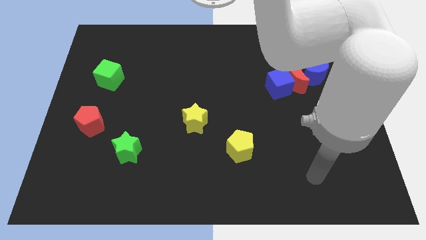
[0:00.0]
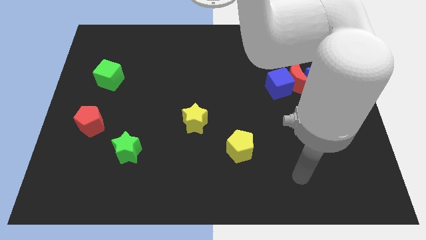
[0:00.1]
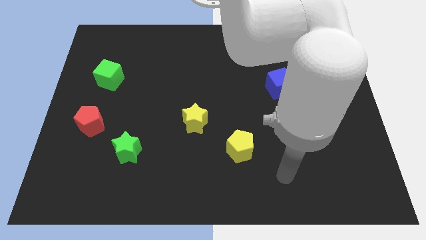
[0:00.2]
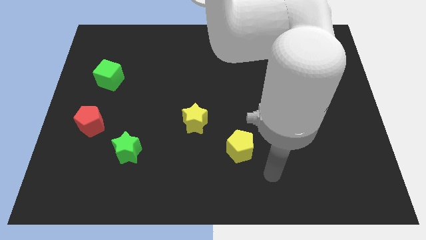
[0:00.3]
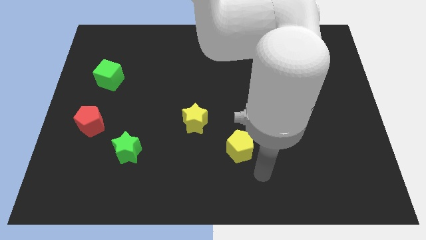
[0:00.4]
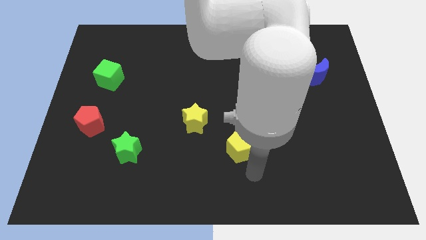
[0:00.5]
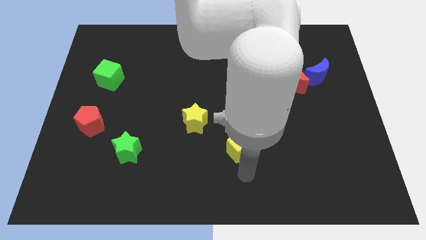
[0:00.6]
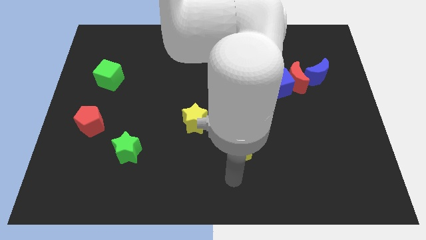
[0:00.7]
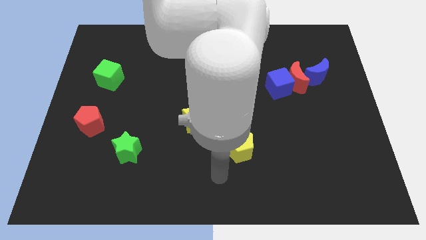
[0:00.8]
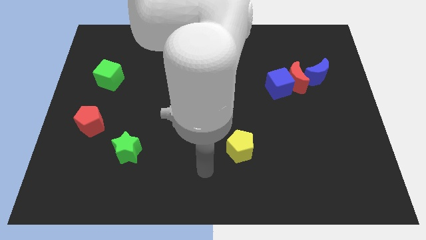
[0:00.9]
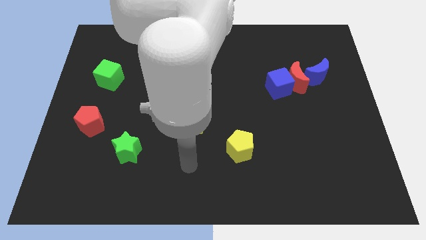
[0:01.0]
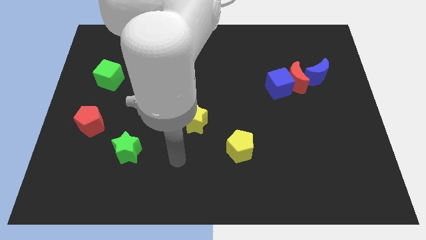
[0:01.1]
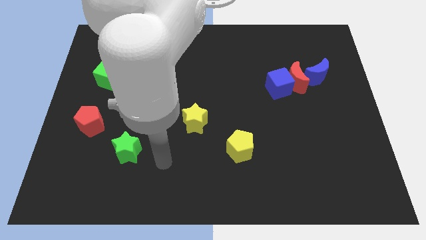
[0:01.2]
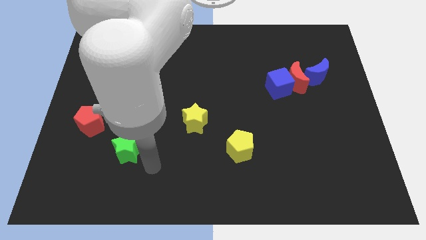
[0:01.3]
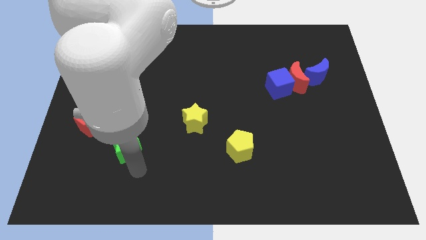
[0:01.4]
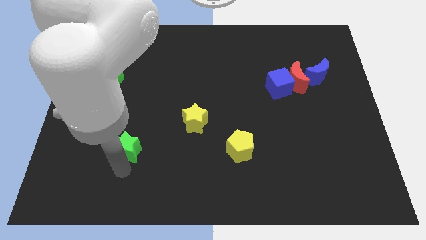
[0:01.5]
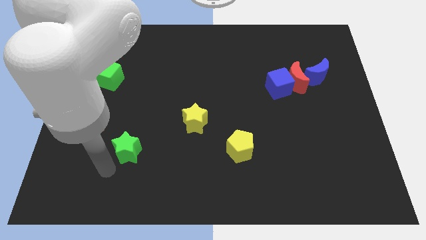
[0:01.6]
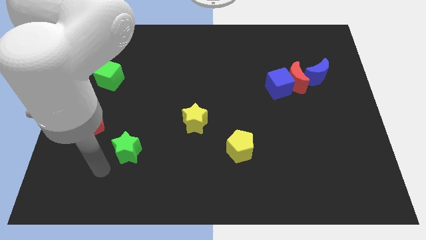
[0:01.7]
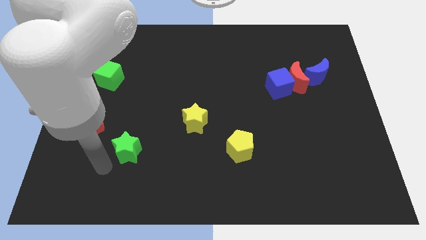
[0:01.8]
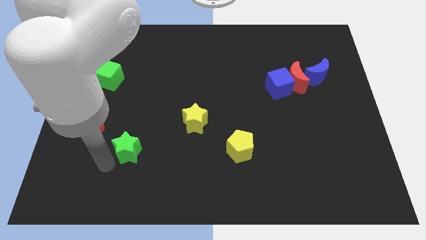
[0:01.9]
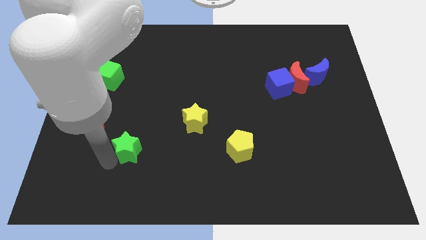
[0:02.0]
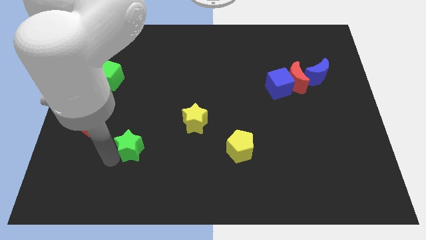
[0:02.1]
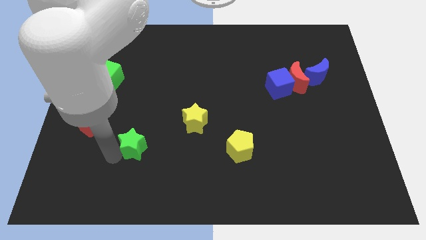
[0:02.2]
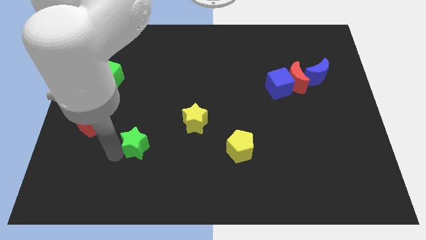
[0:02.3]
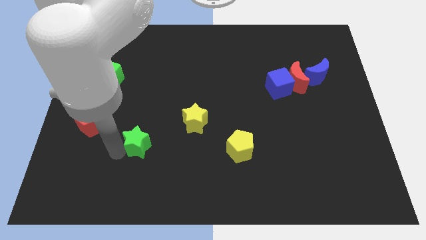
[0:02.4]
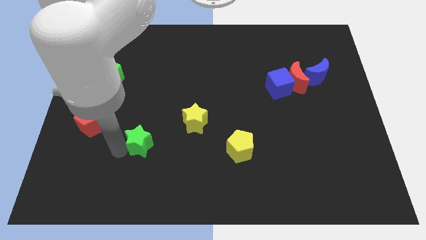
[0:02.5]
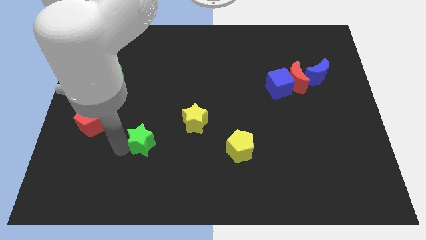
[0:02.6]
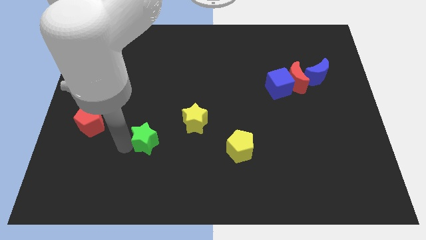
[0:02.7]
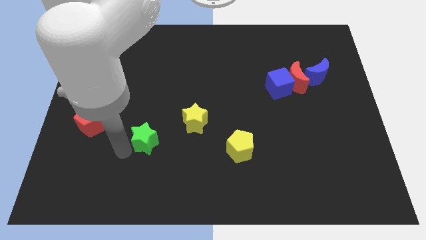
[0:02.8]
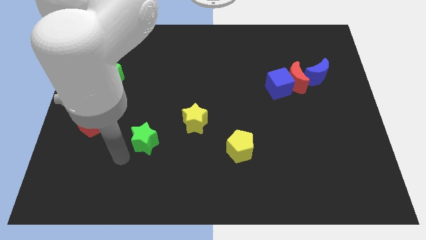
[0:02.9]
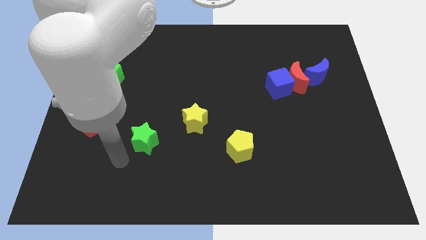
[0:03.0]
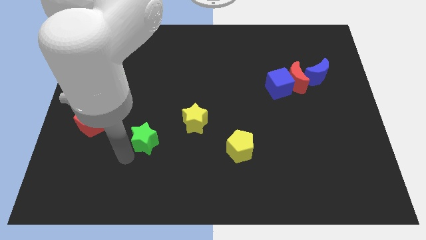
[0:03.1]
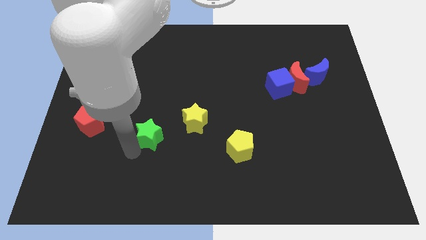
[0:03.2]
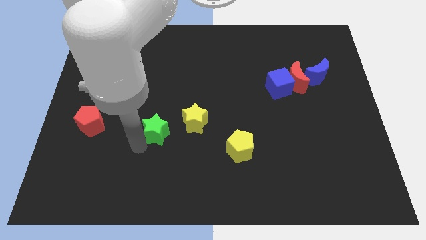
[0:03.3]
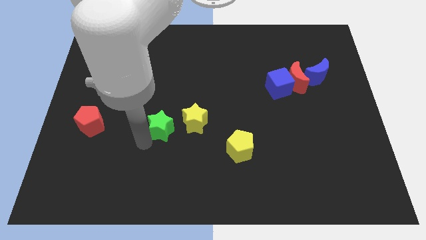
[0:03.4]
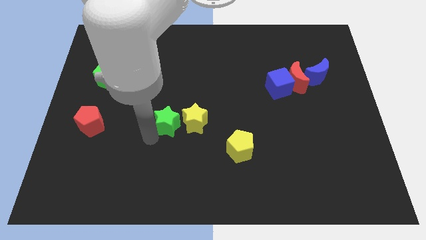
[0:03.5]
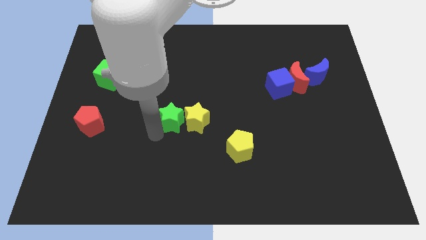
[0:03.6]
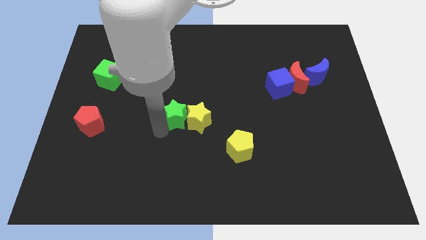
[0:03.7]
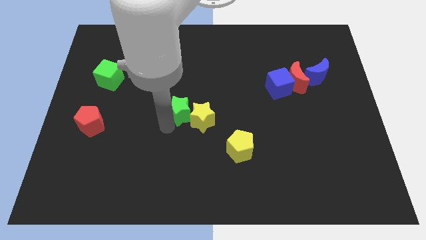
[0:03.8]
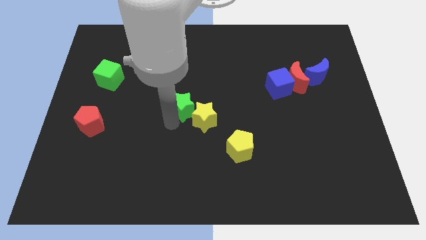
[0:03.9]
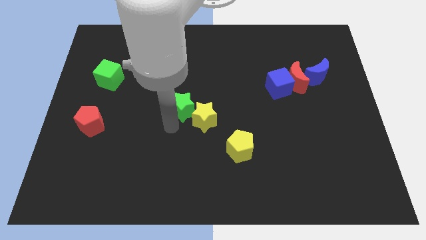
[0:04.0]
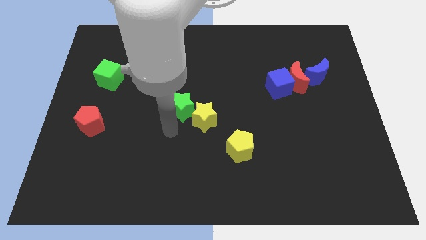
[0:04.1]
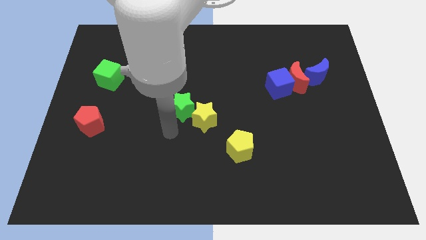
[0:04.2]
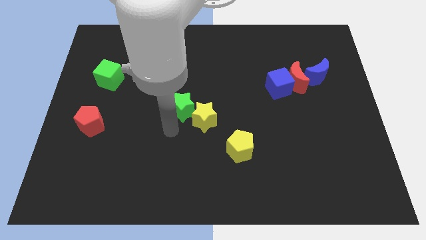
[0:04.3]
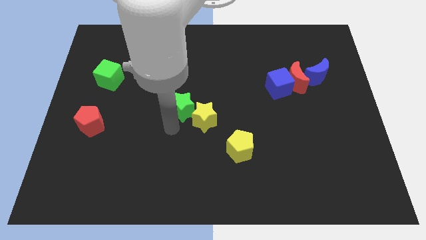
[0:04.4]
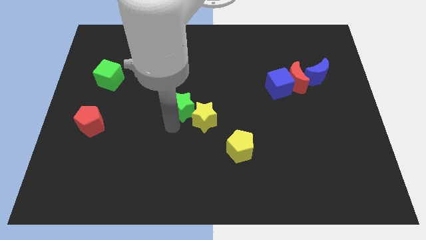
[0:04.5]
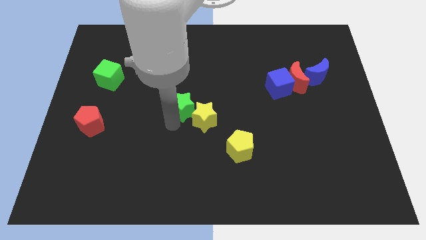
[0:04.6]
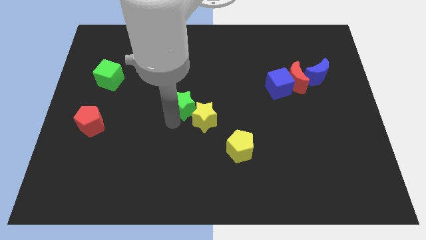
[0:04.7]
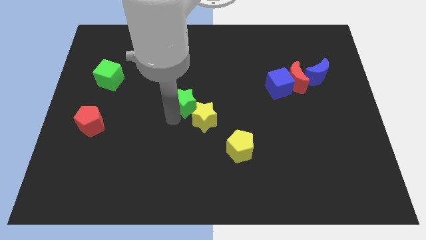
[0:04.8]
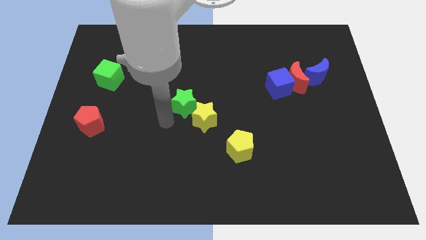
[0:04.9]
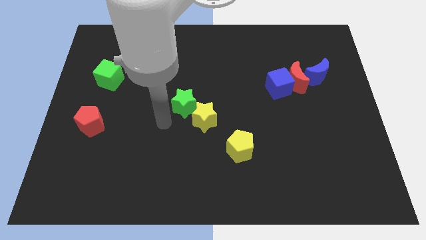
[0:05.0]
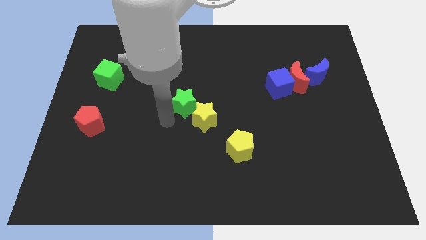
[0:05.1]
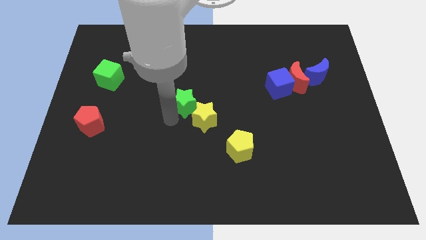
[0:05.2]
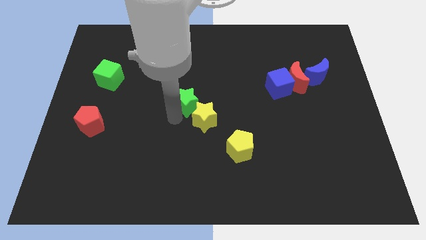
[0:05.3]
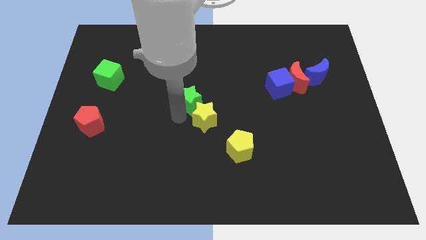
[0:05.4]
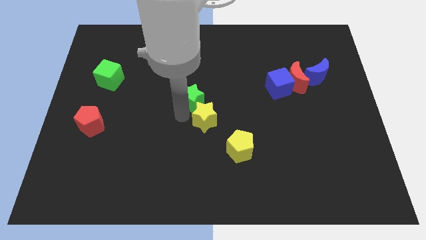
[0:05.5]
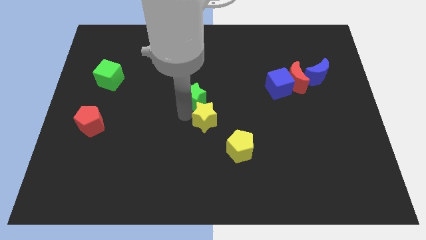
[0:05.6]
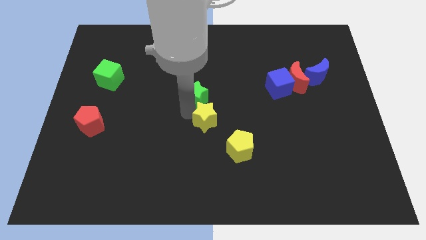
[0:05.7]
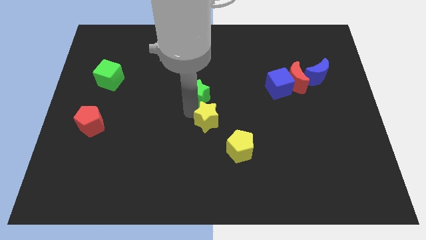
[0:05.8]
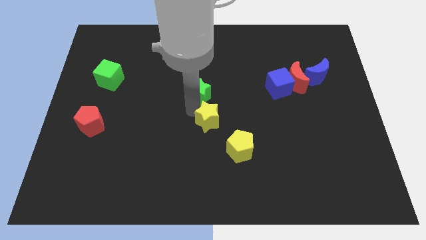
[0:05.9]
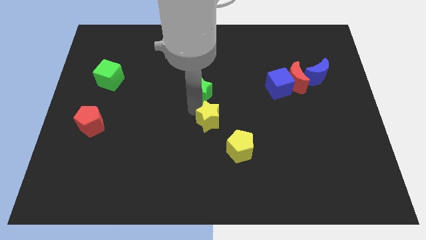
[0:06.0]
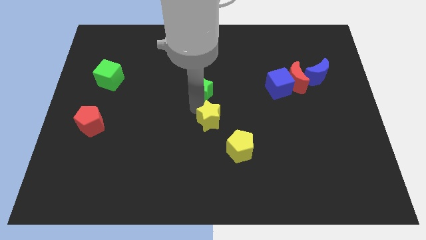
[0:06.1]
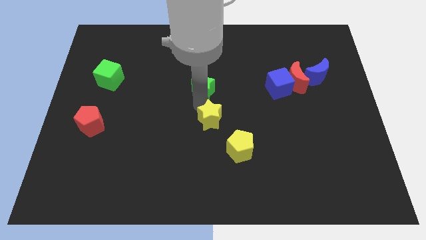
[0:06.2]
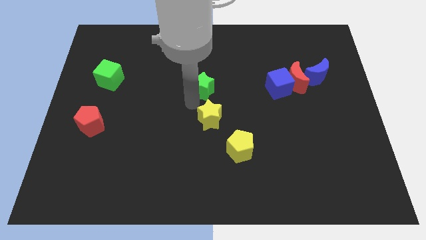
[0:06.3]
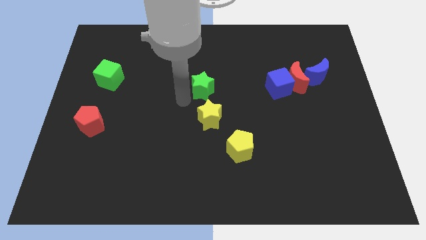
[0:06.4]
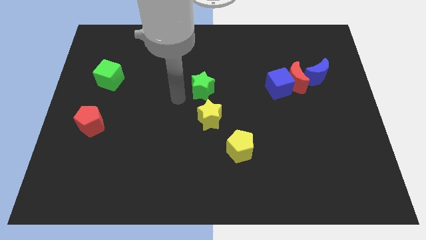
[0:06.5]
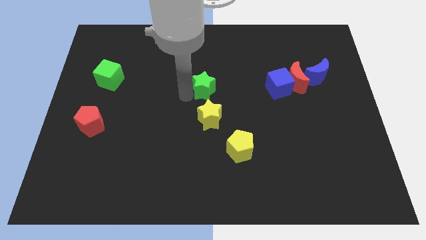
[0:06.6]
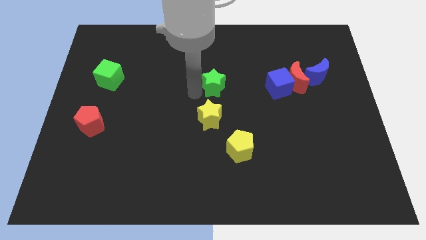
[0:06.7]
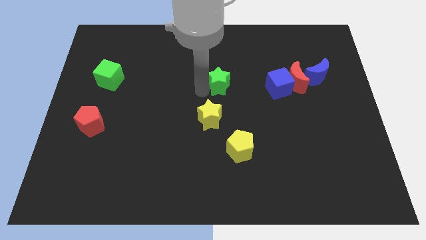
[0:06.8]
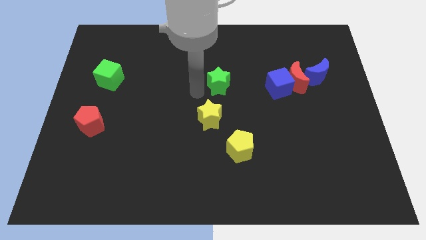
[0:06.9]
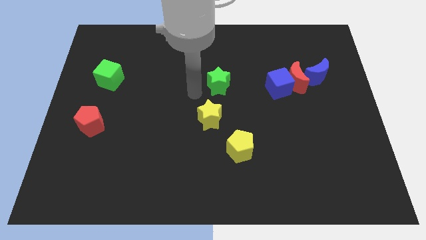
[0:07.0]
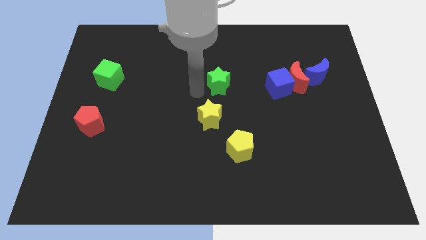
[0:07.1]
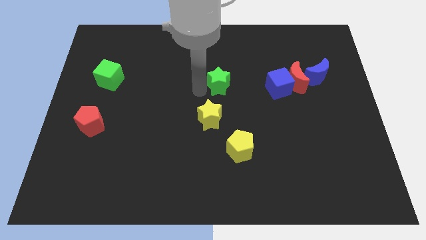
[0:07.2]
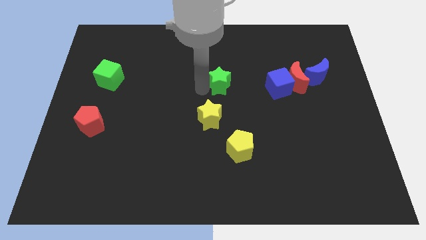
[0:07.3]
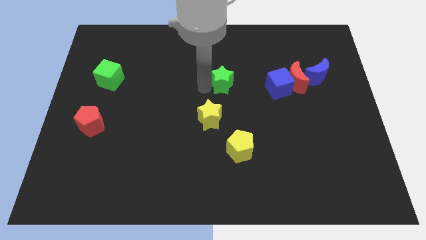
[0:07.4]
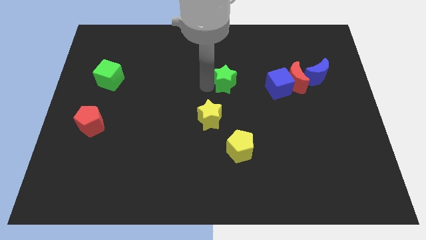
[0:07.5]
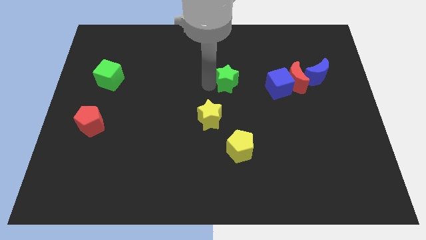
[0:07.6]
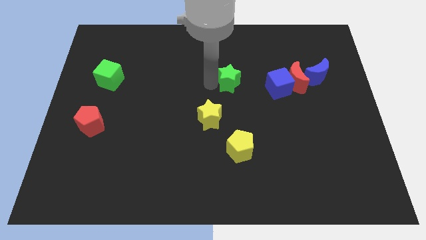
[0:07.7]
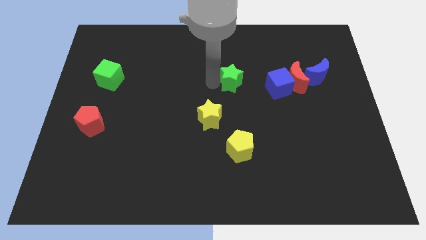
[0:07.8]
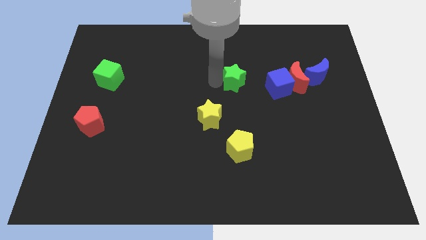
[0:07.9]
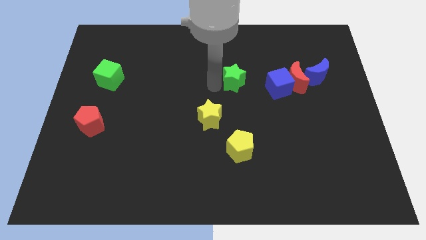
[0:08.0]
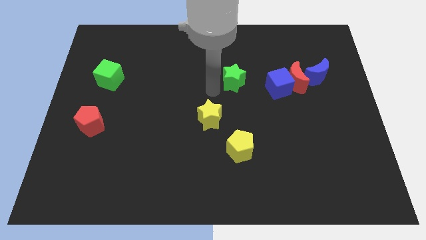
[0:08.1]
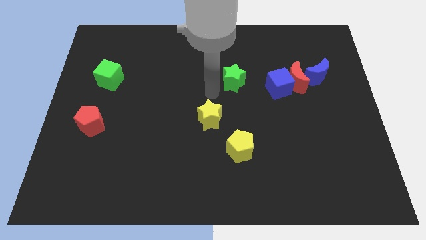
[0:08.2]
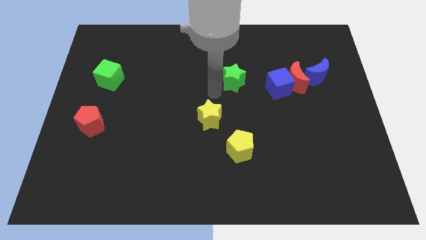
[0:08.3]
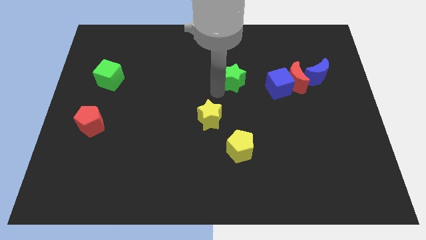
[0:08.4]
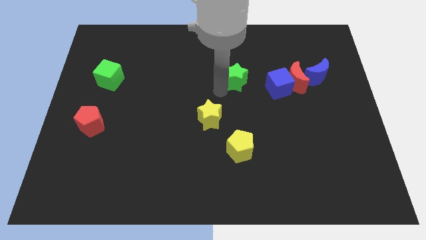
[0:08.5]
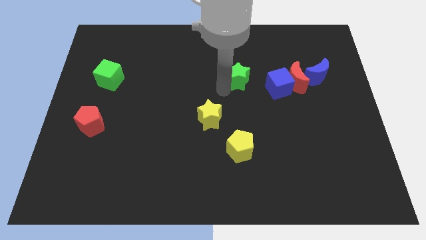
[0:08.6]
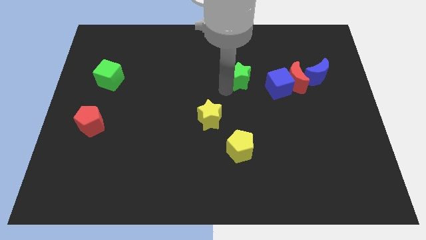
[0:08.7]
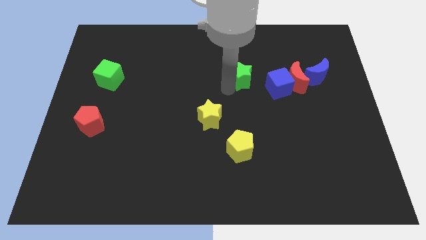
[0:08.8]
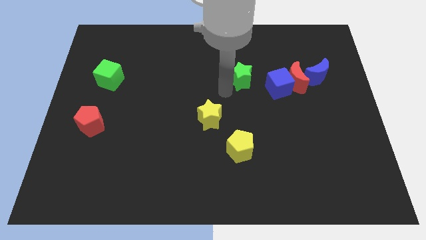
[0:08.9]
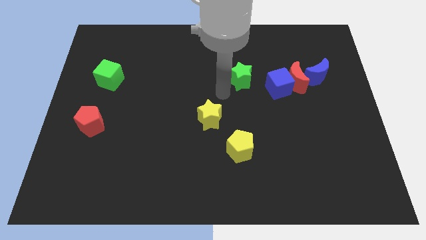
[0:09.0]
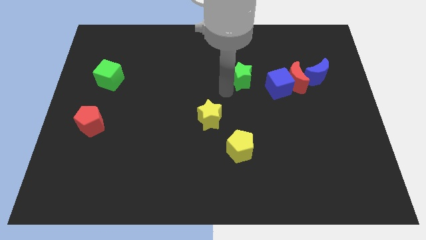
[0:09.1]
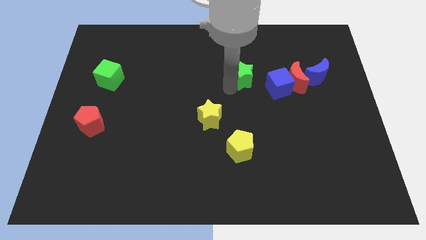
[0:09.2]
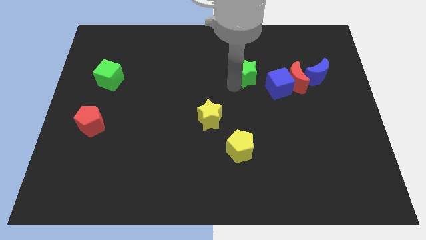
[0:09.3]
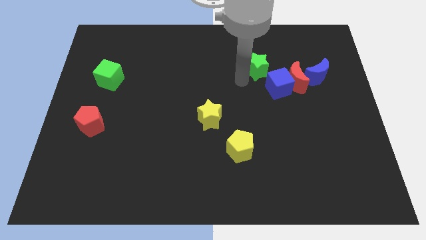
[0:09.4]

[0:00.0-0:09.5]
slide the green star to the top side of the blue cube
